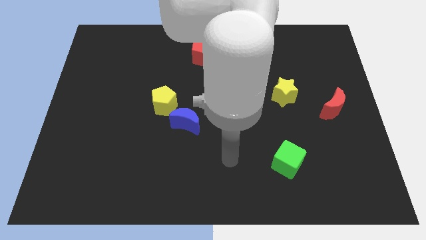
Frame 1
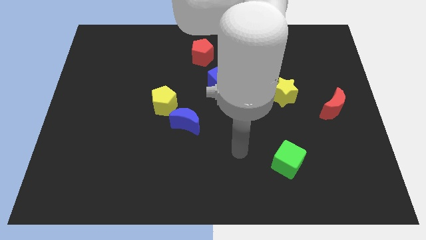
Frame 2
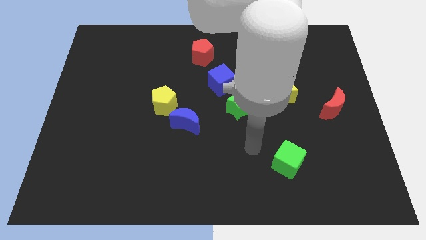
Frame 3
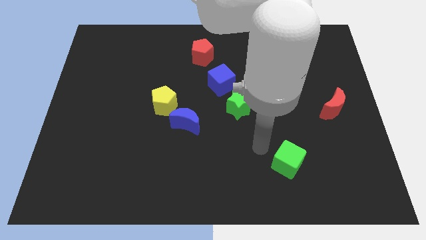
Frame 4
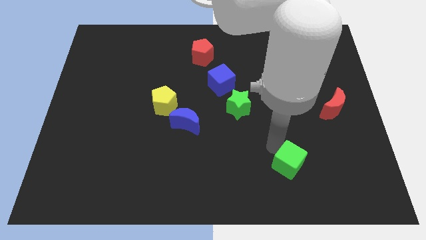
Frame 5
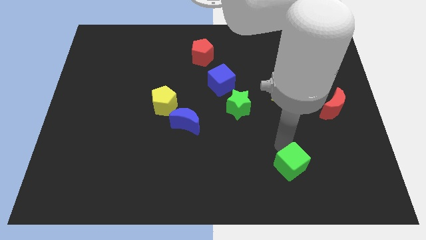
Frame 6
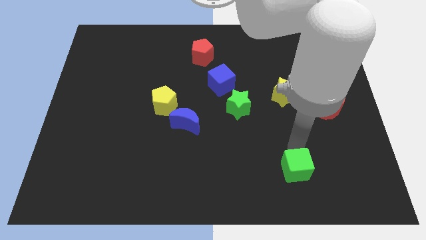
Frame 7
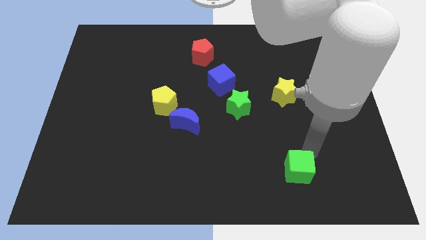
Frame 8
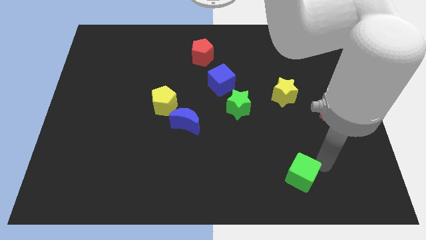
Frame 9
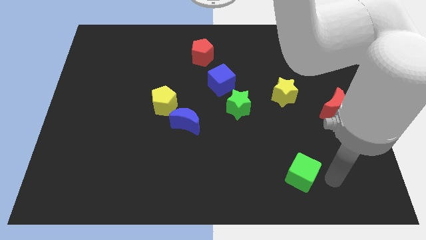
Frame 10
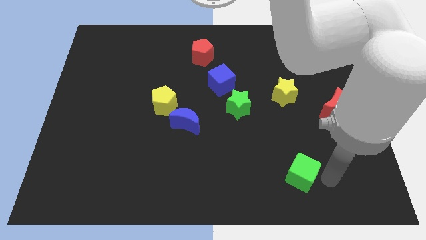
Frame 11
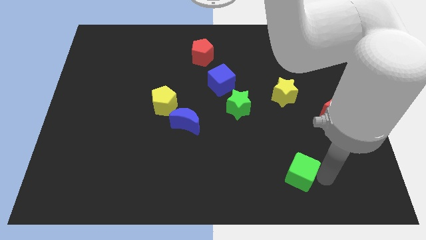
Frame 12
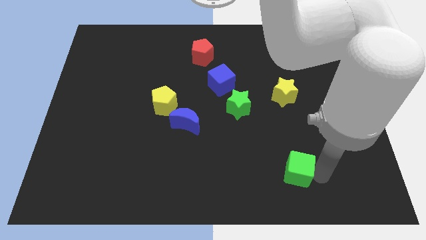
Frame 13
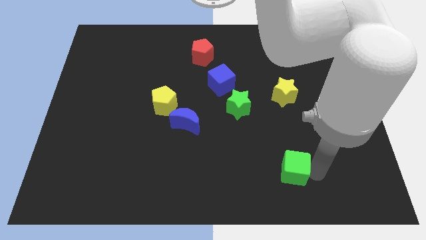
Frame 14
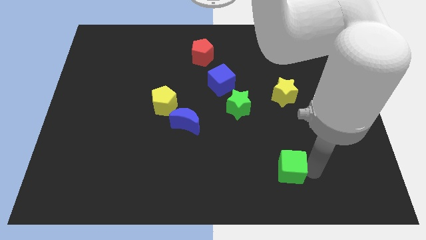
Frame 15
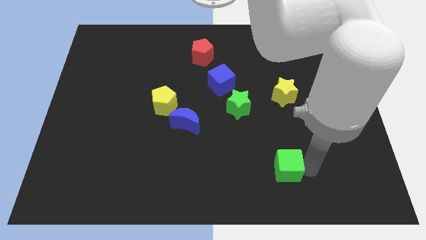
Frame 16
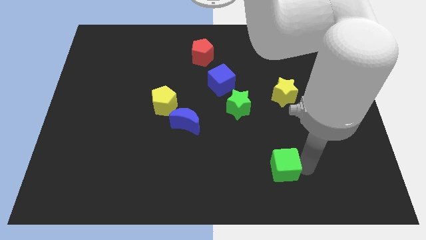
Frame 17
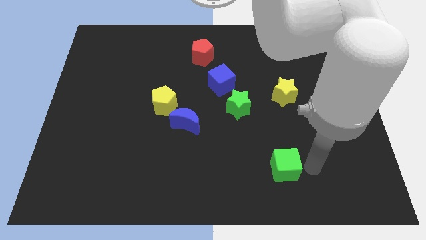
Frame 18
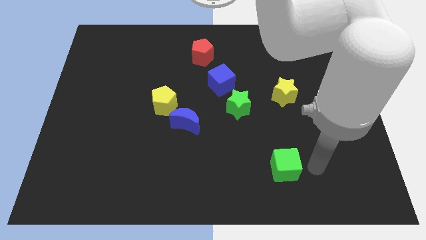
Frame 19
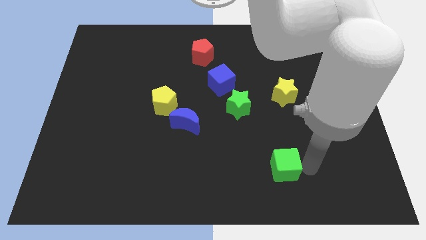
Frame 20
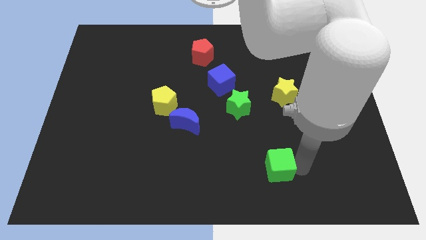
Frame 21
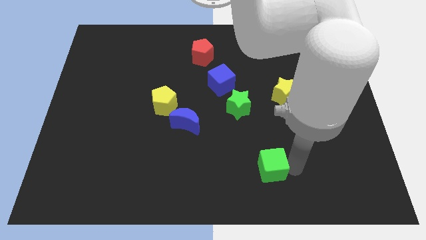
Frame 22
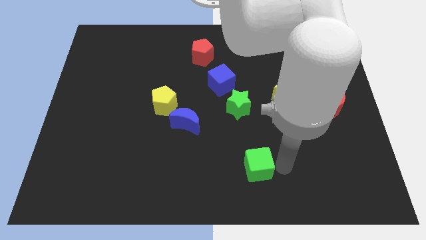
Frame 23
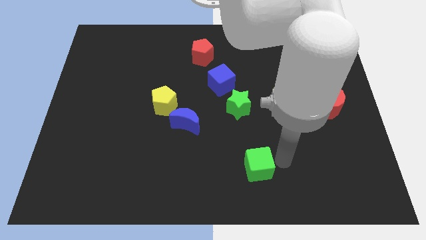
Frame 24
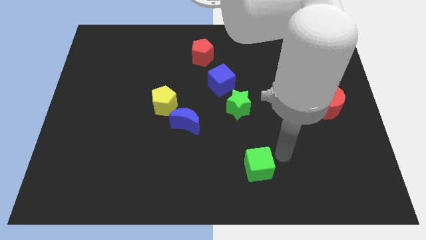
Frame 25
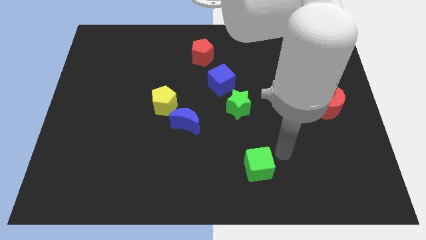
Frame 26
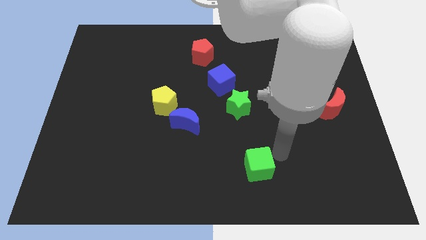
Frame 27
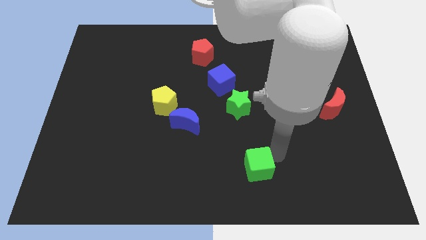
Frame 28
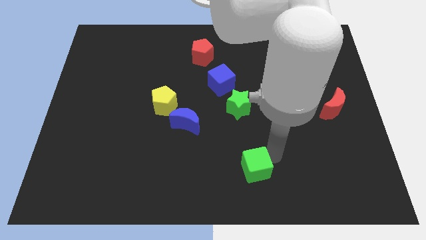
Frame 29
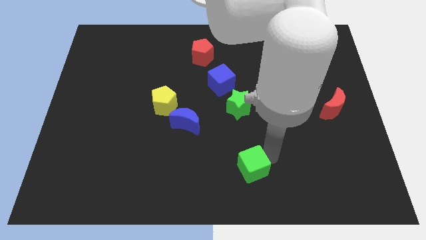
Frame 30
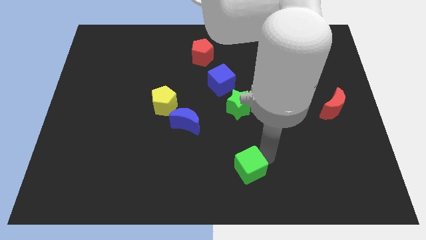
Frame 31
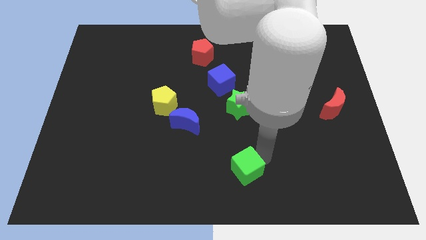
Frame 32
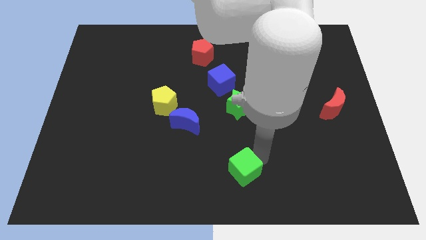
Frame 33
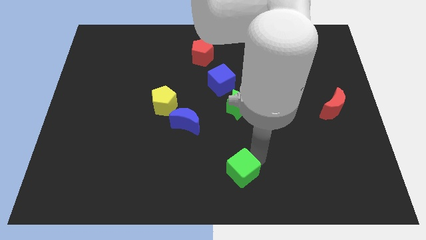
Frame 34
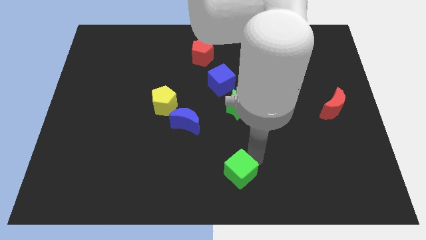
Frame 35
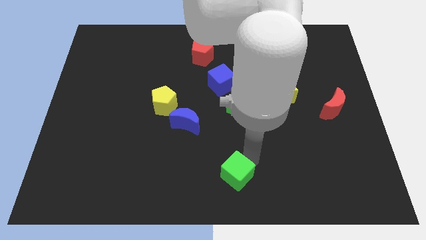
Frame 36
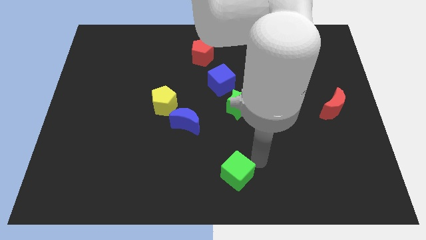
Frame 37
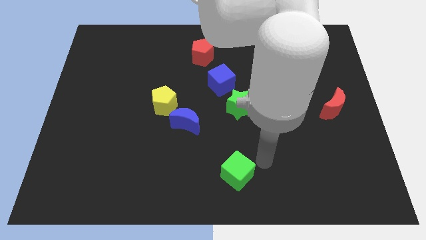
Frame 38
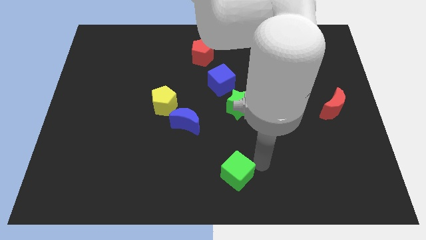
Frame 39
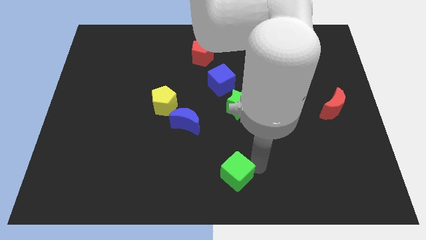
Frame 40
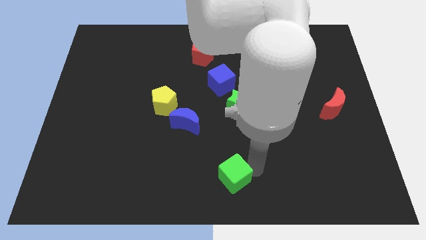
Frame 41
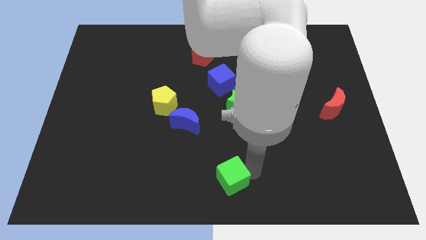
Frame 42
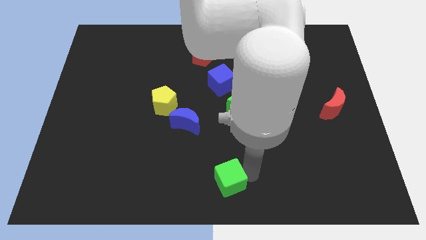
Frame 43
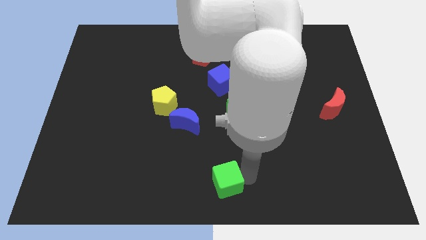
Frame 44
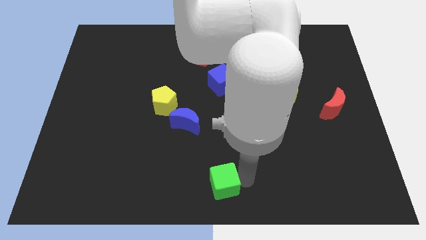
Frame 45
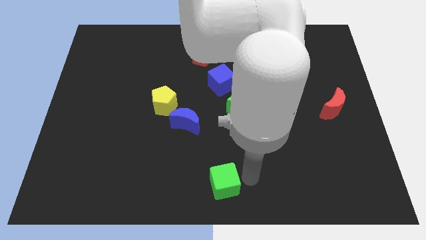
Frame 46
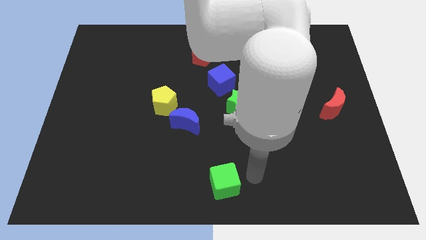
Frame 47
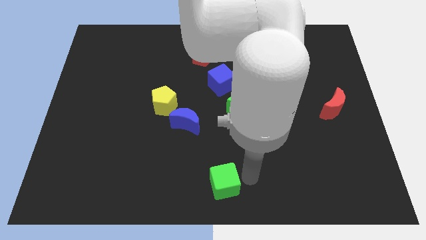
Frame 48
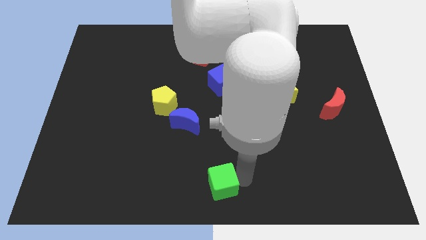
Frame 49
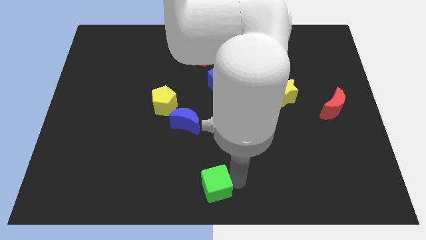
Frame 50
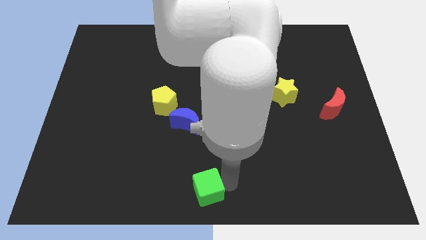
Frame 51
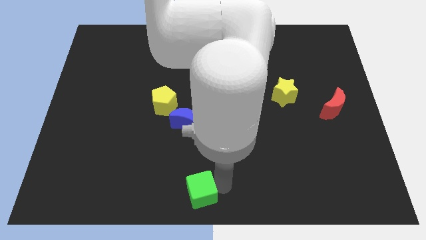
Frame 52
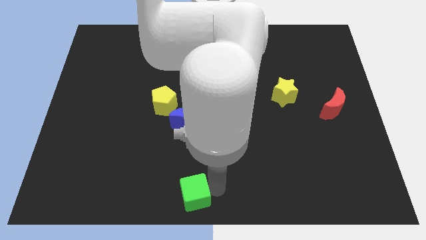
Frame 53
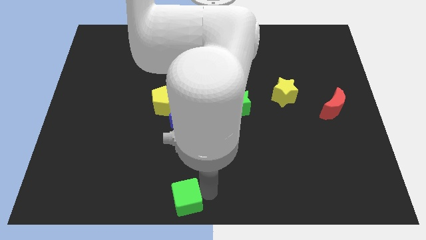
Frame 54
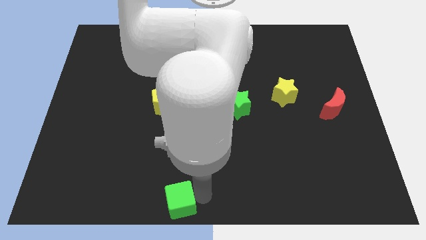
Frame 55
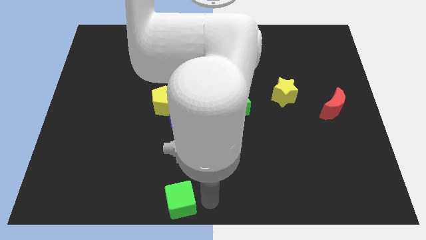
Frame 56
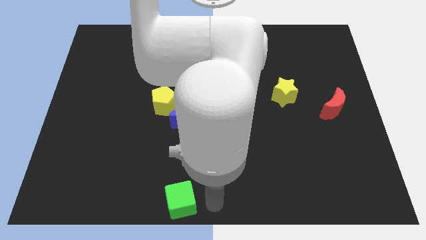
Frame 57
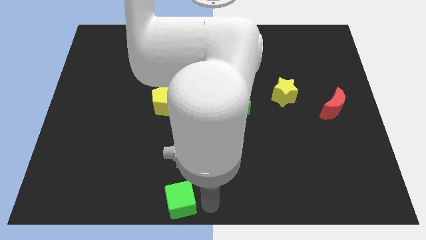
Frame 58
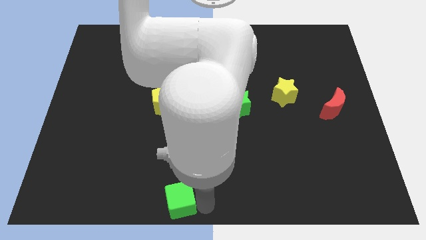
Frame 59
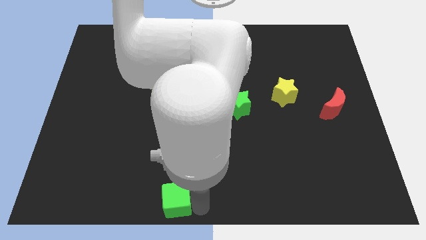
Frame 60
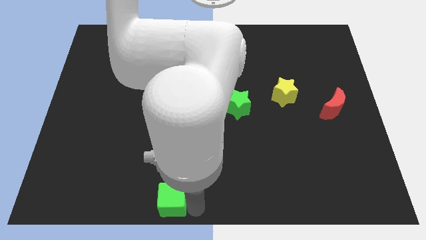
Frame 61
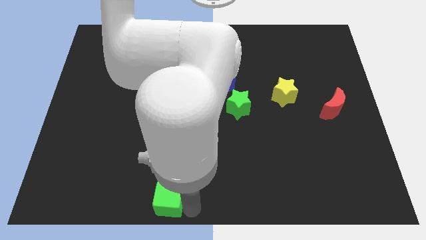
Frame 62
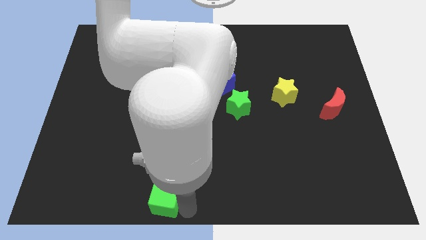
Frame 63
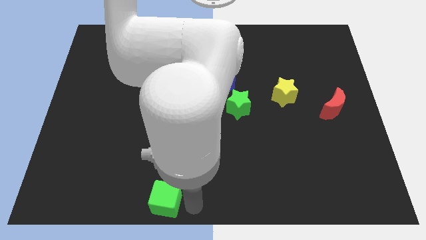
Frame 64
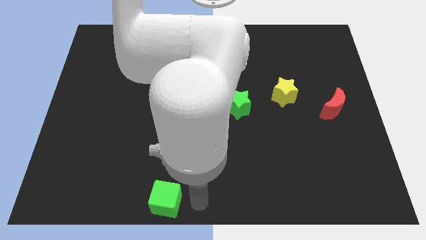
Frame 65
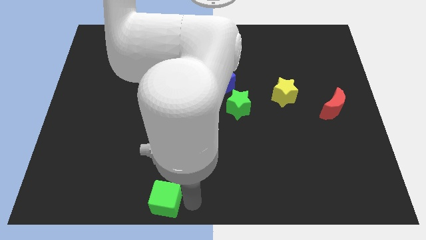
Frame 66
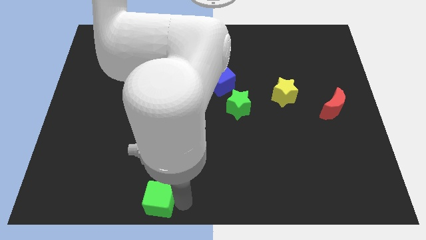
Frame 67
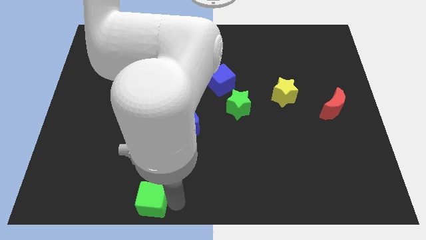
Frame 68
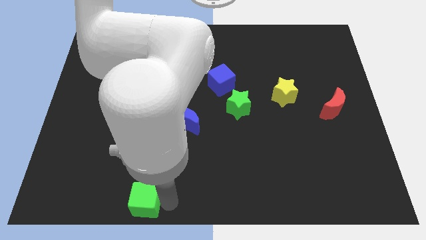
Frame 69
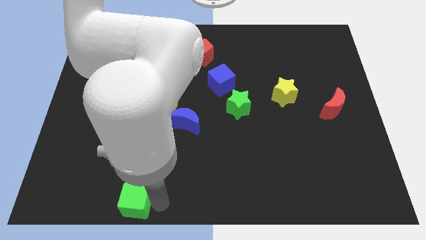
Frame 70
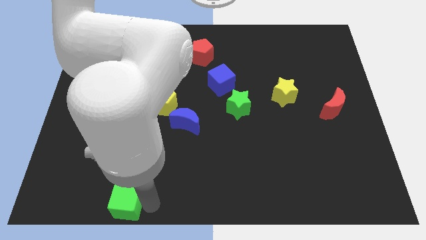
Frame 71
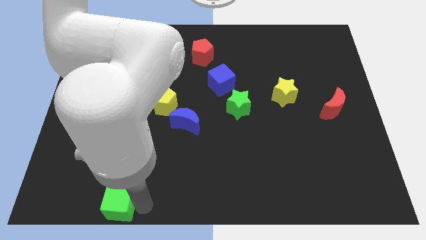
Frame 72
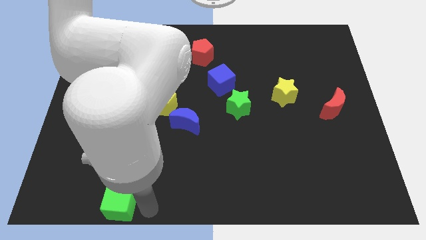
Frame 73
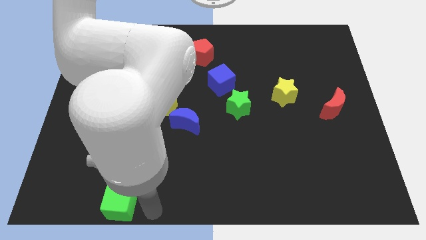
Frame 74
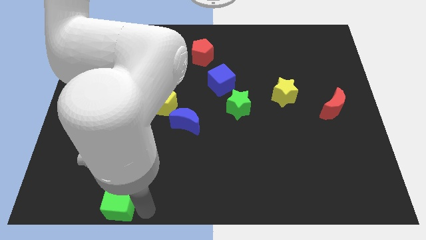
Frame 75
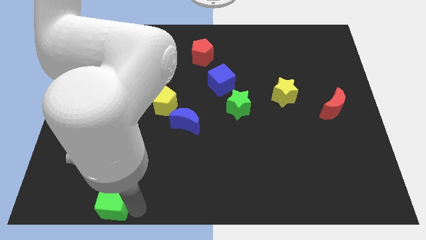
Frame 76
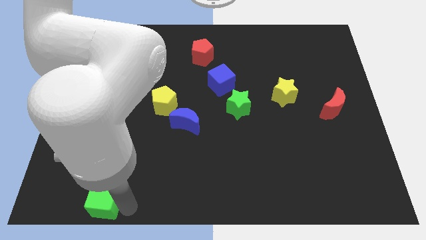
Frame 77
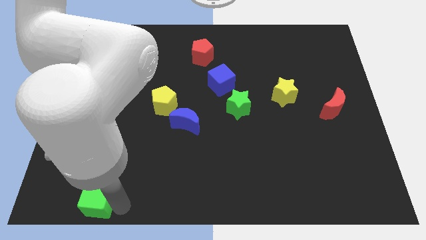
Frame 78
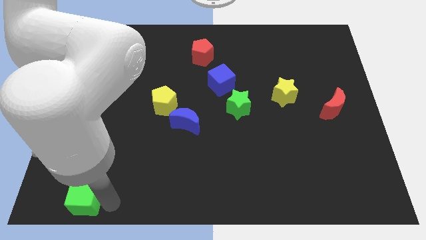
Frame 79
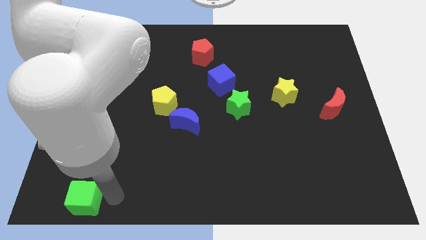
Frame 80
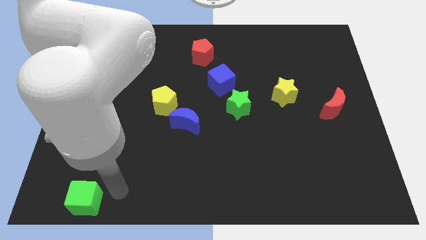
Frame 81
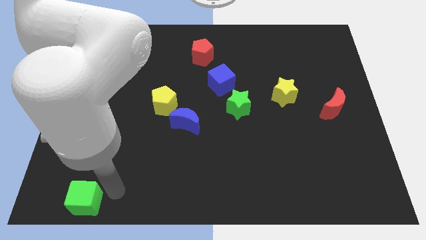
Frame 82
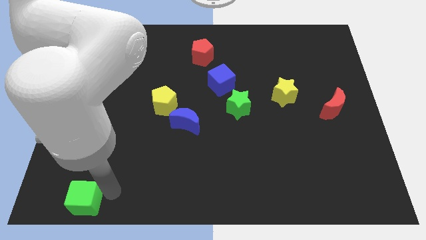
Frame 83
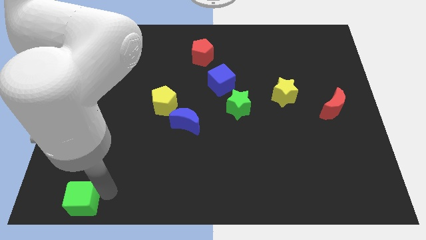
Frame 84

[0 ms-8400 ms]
slide the green cube to the bottom left
